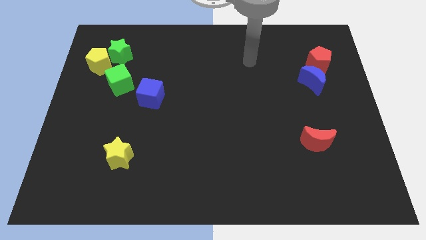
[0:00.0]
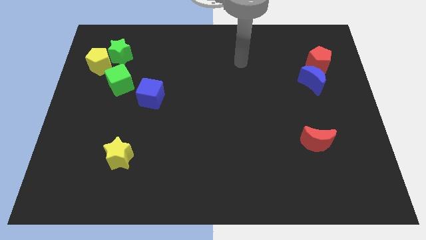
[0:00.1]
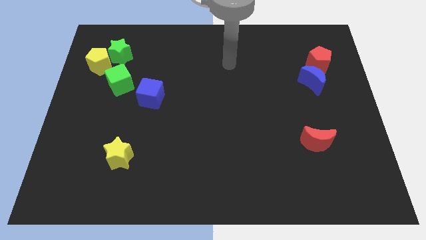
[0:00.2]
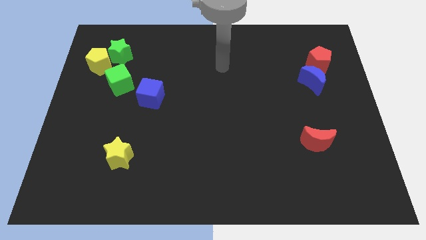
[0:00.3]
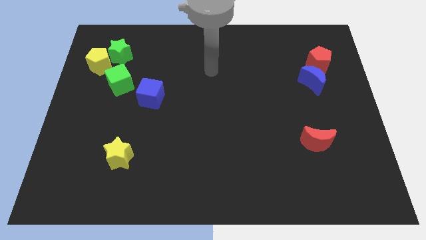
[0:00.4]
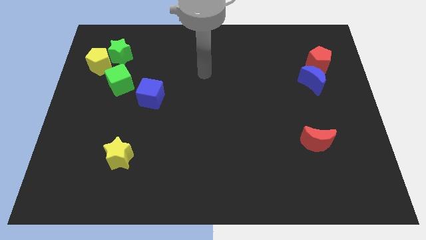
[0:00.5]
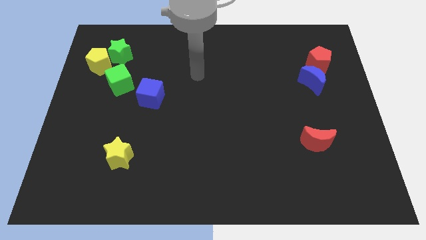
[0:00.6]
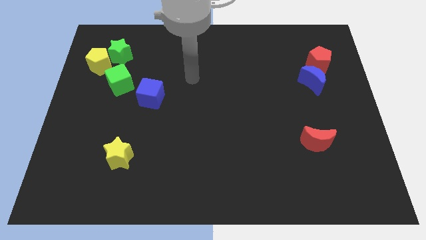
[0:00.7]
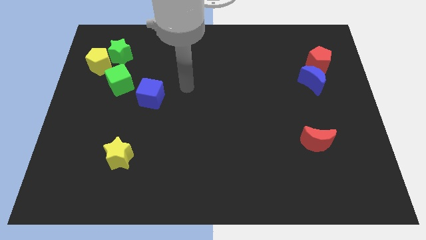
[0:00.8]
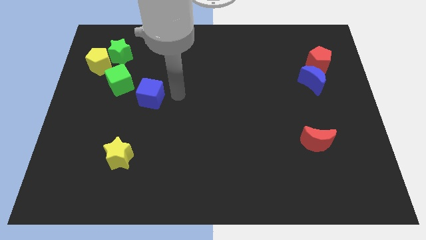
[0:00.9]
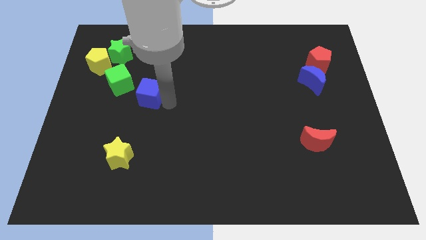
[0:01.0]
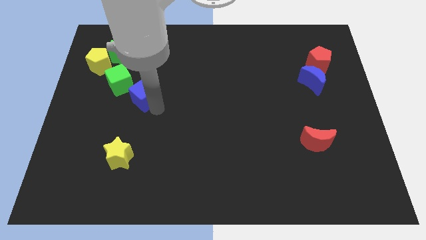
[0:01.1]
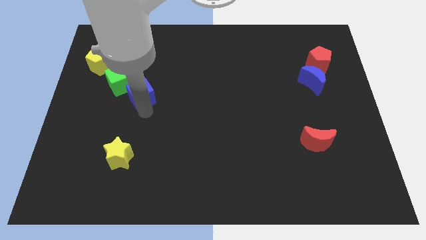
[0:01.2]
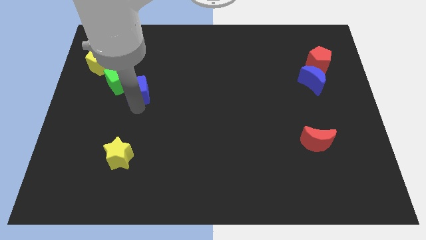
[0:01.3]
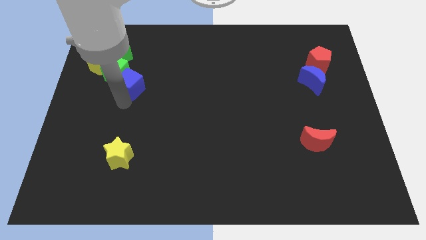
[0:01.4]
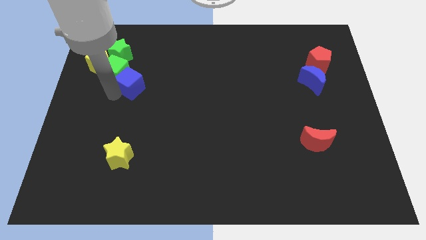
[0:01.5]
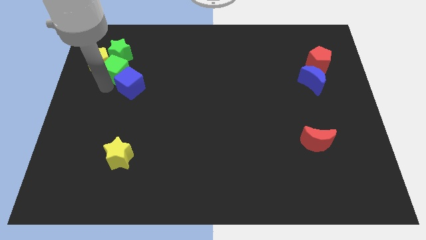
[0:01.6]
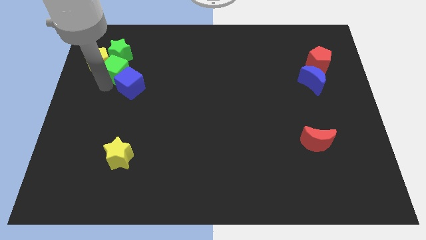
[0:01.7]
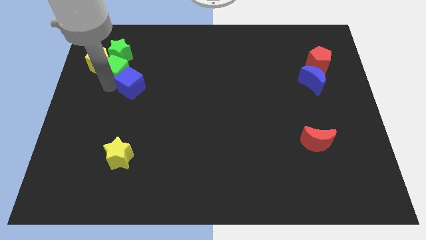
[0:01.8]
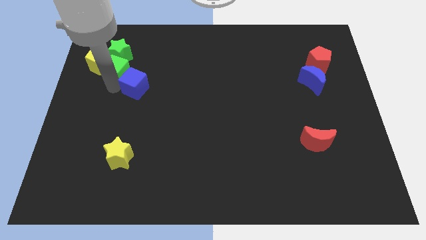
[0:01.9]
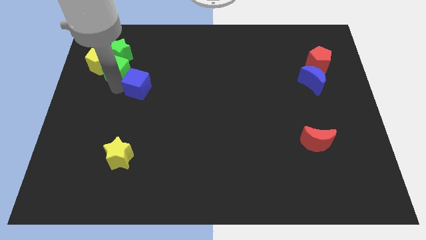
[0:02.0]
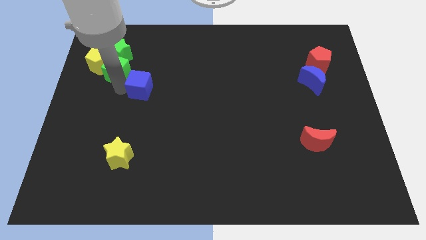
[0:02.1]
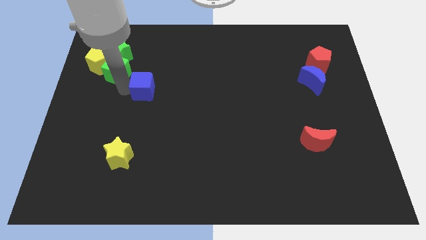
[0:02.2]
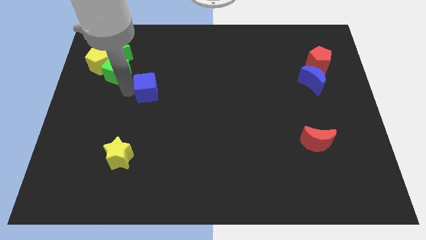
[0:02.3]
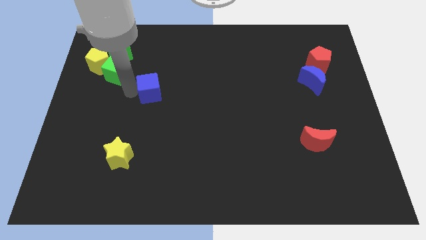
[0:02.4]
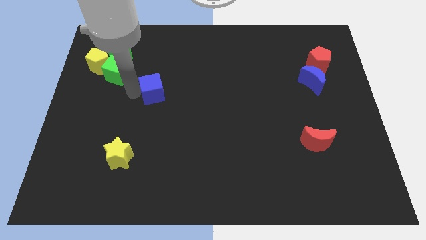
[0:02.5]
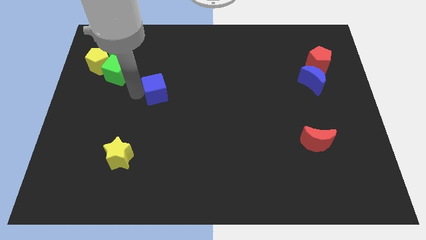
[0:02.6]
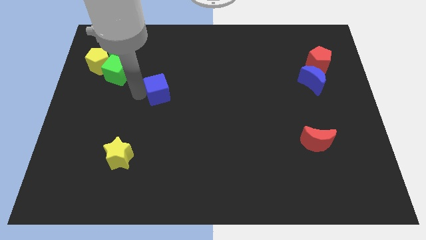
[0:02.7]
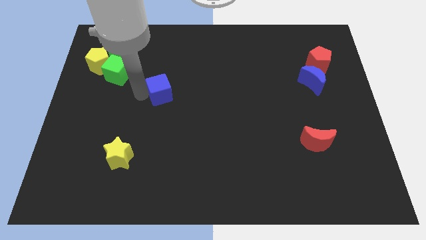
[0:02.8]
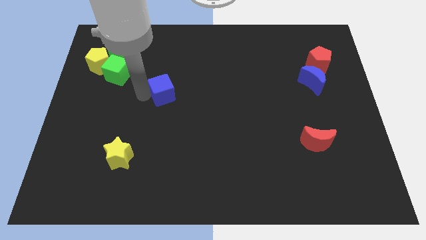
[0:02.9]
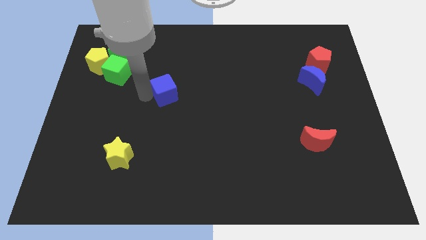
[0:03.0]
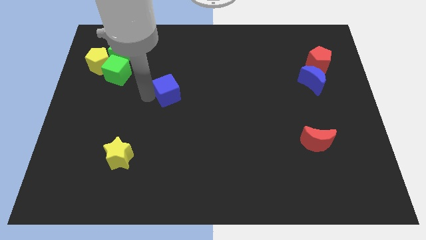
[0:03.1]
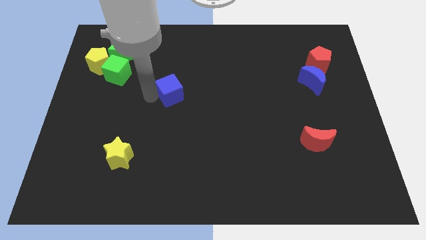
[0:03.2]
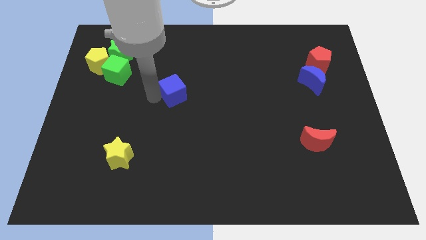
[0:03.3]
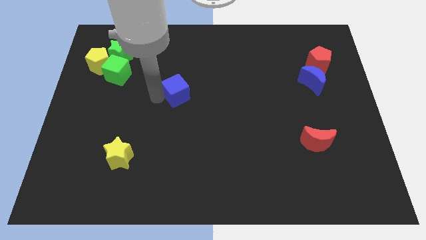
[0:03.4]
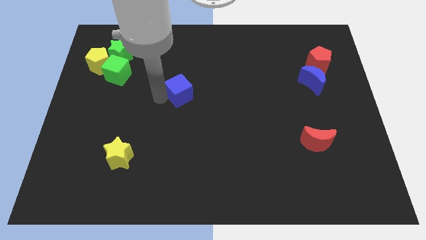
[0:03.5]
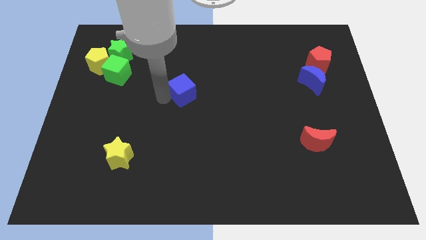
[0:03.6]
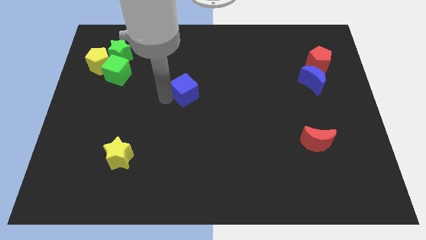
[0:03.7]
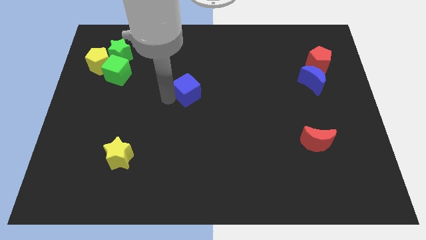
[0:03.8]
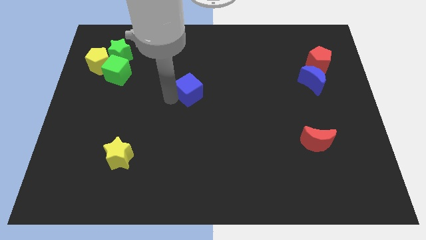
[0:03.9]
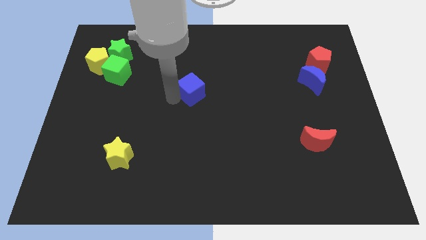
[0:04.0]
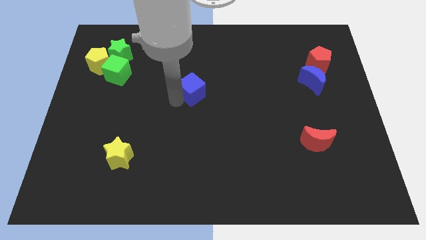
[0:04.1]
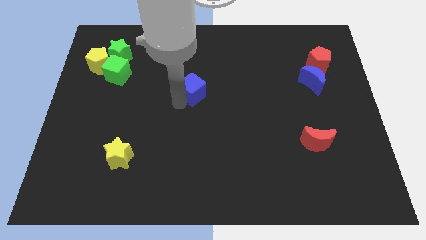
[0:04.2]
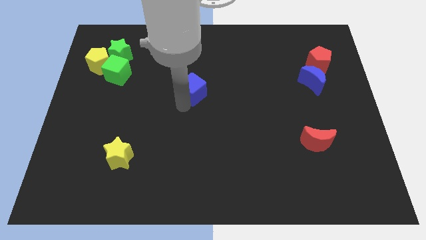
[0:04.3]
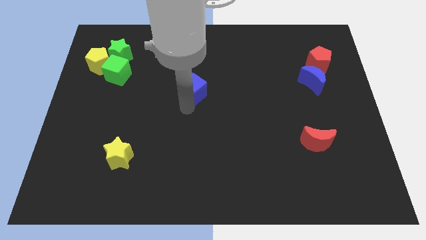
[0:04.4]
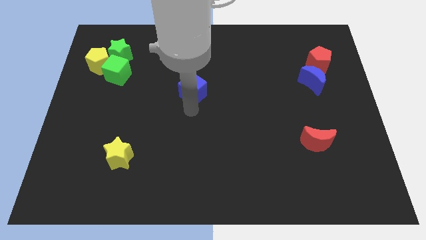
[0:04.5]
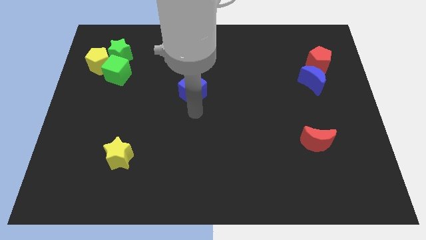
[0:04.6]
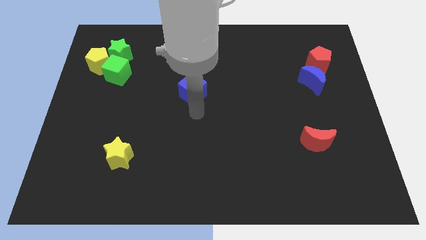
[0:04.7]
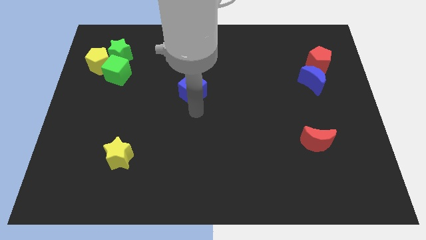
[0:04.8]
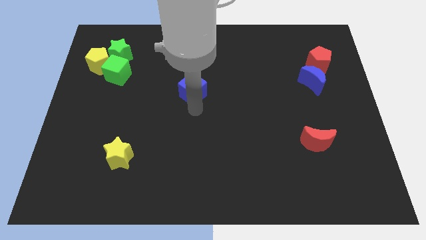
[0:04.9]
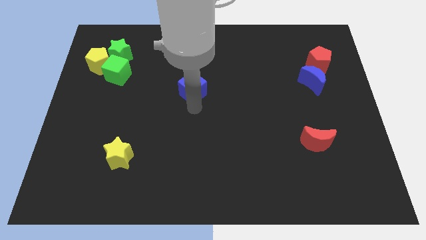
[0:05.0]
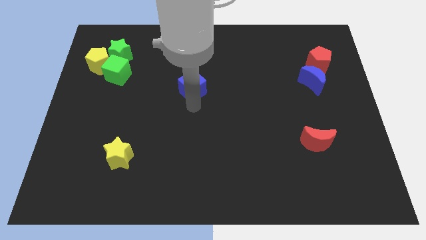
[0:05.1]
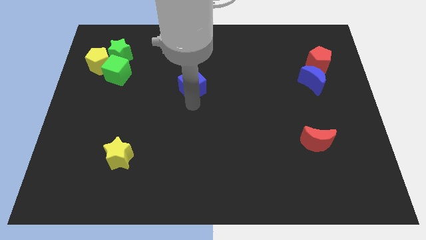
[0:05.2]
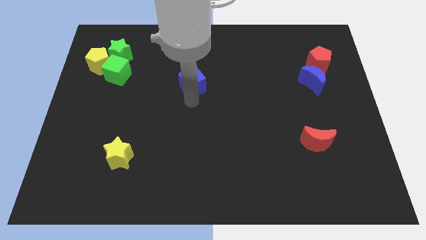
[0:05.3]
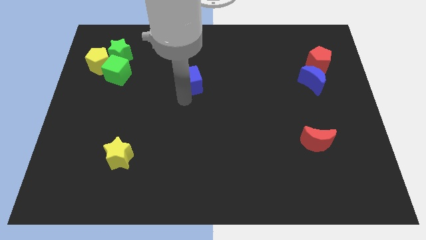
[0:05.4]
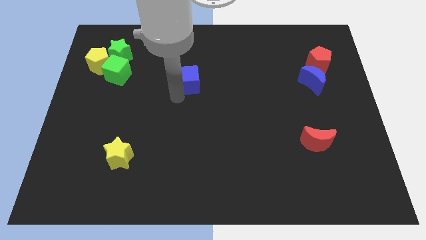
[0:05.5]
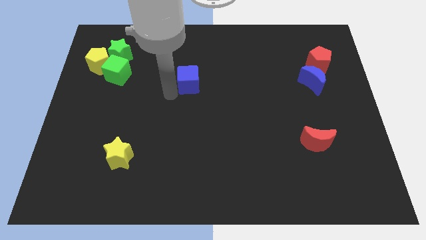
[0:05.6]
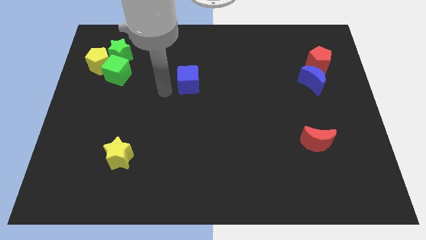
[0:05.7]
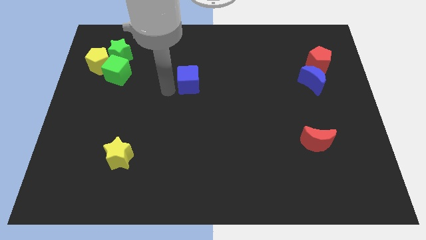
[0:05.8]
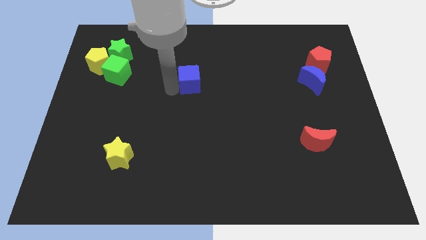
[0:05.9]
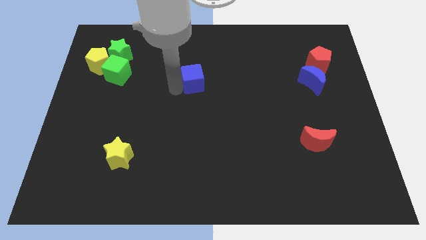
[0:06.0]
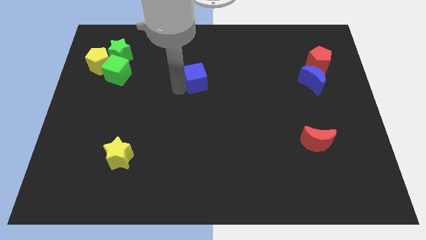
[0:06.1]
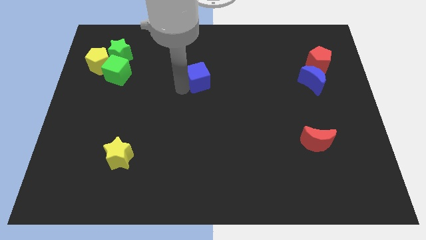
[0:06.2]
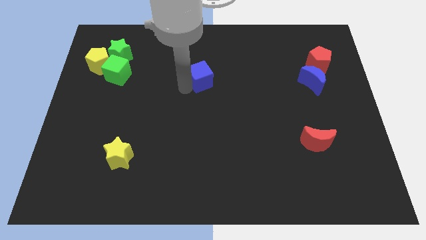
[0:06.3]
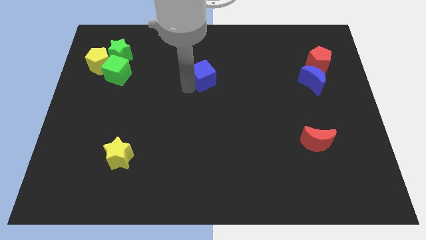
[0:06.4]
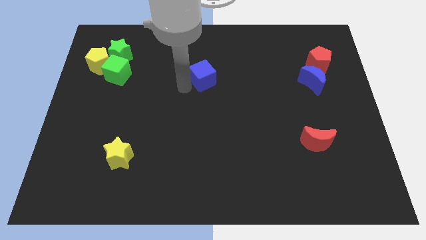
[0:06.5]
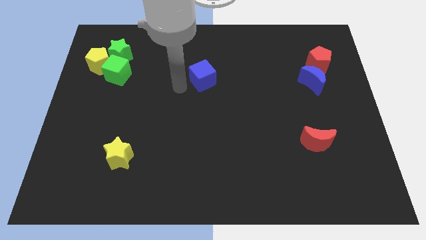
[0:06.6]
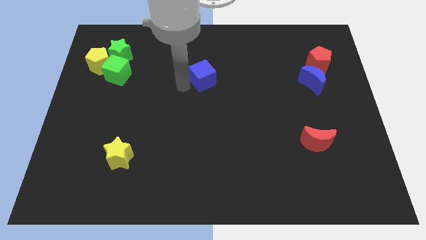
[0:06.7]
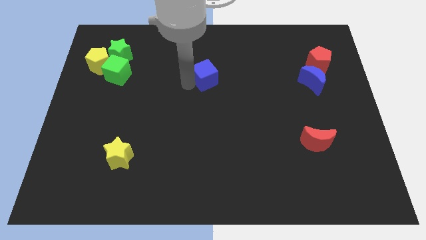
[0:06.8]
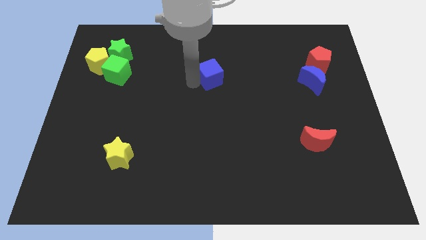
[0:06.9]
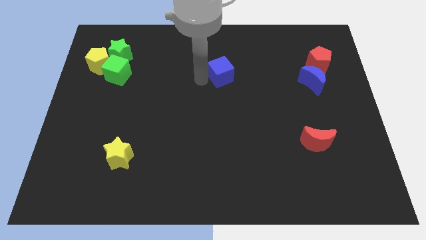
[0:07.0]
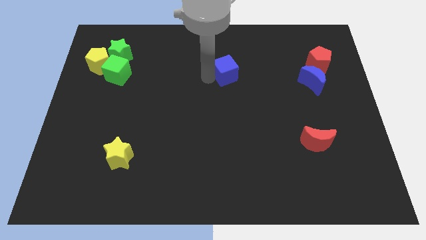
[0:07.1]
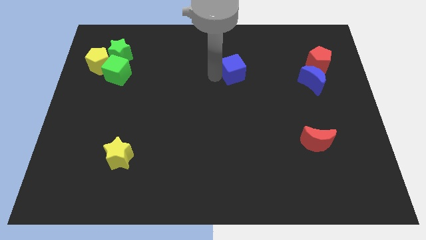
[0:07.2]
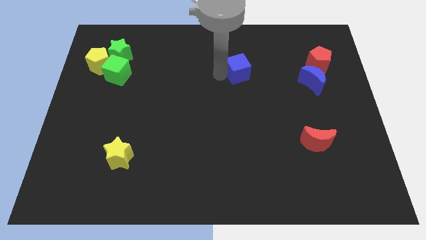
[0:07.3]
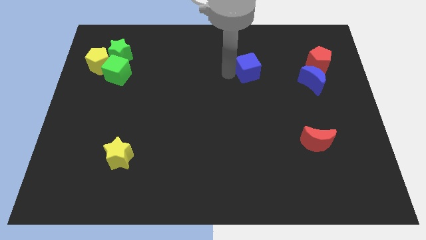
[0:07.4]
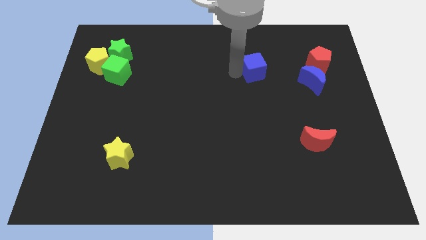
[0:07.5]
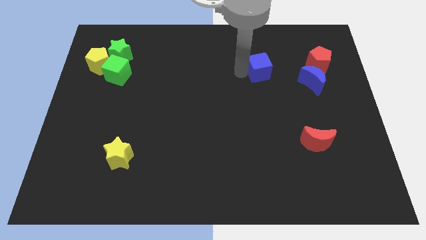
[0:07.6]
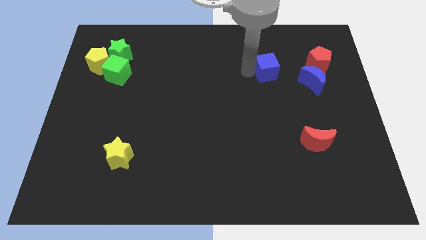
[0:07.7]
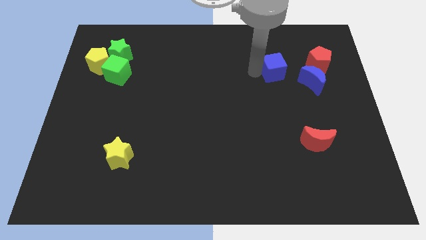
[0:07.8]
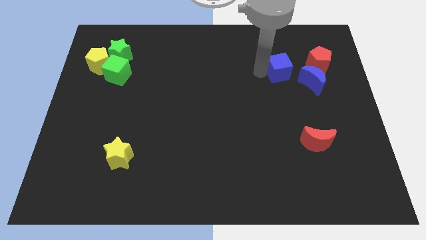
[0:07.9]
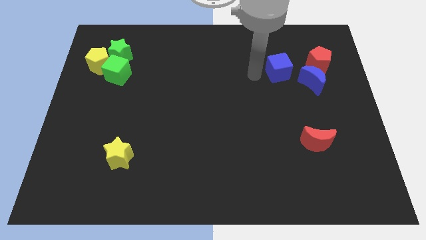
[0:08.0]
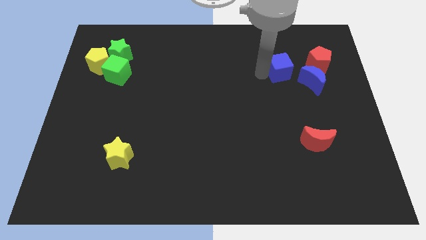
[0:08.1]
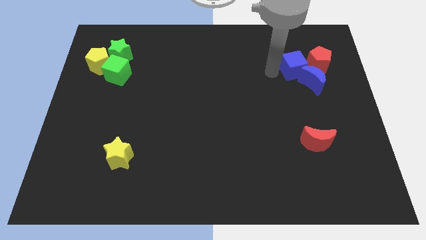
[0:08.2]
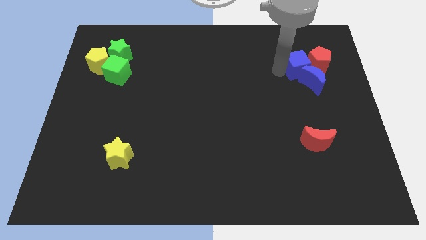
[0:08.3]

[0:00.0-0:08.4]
put the blue cube close to the red pentagon
